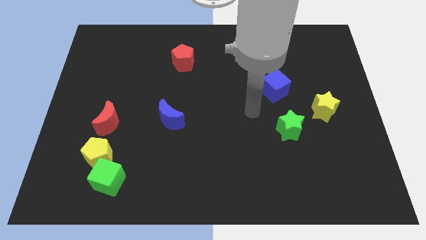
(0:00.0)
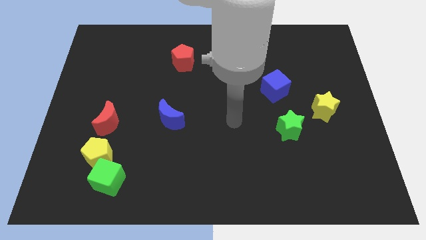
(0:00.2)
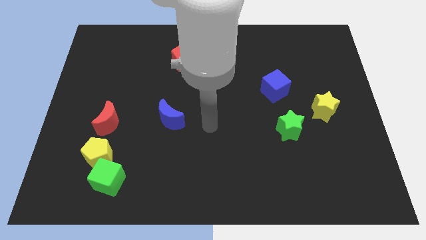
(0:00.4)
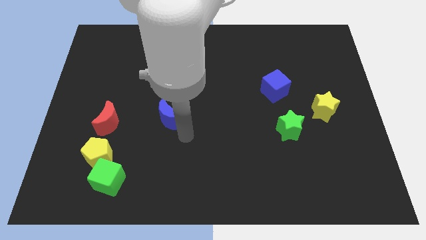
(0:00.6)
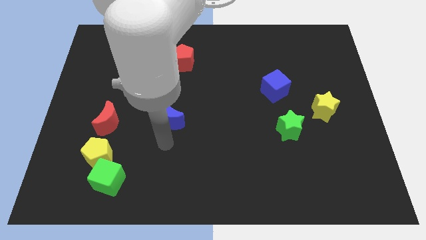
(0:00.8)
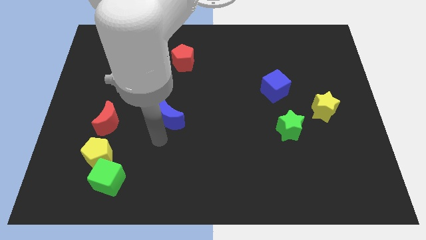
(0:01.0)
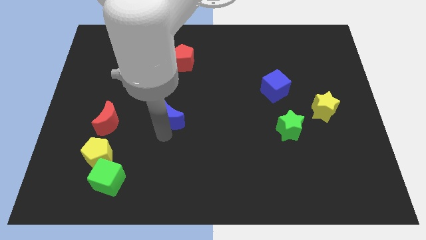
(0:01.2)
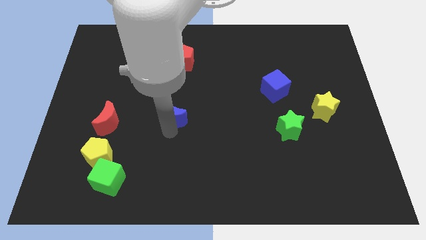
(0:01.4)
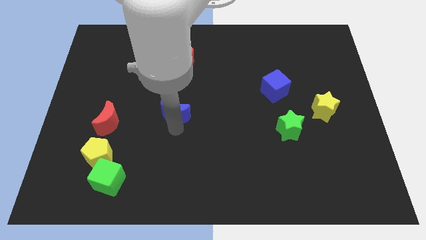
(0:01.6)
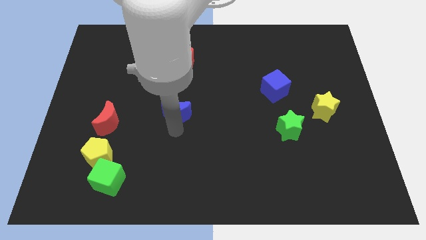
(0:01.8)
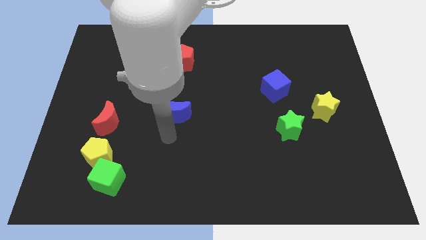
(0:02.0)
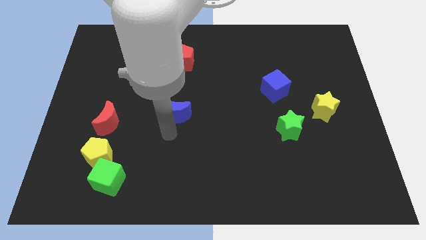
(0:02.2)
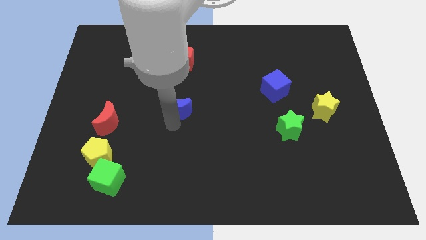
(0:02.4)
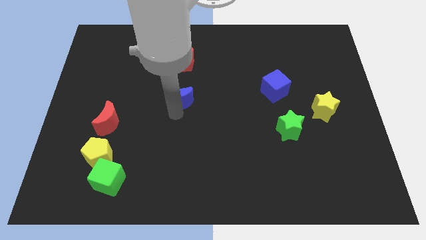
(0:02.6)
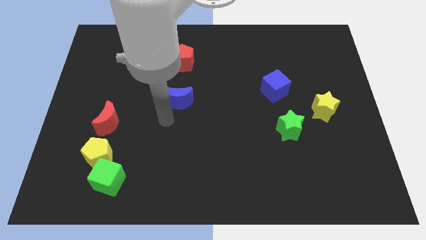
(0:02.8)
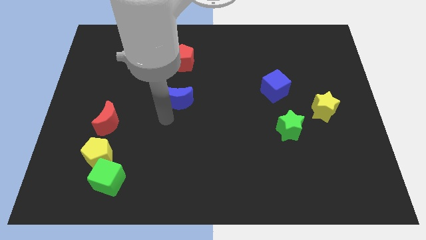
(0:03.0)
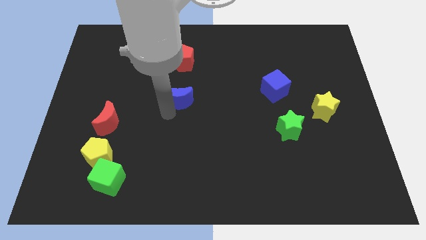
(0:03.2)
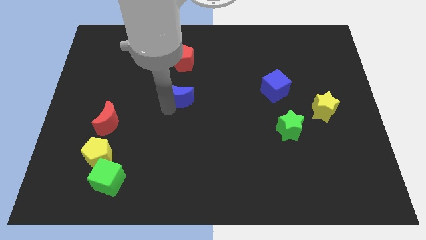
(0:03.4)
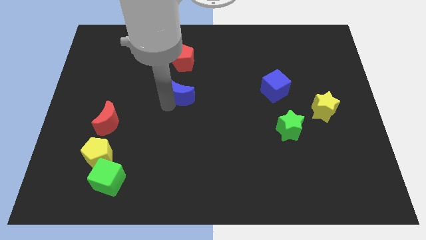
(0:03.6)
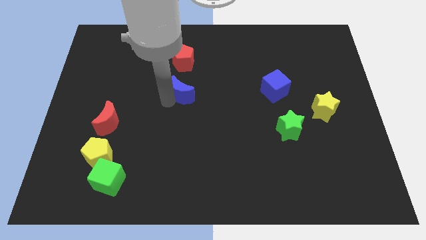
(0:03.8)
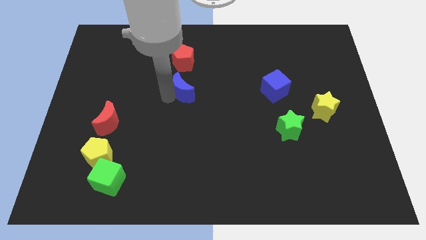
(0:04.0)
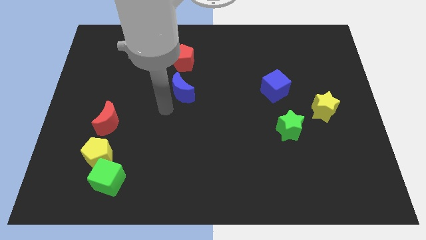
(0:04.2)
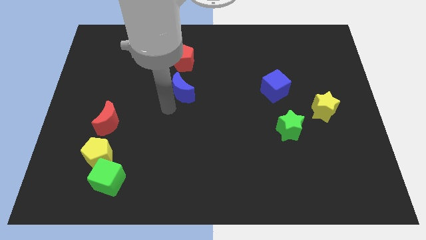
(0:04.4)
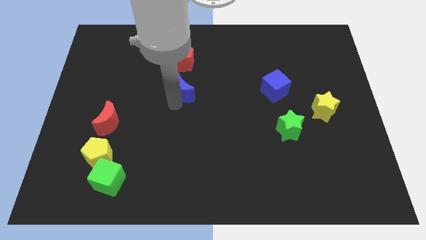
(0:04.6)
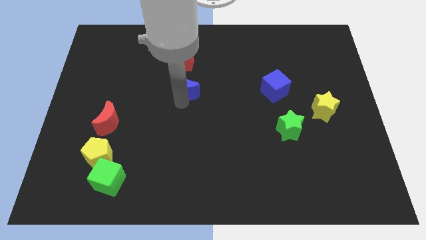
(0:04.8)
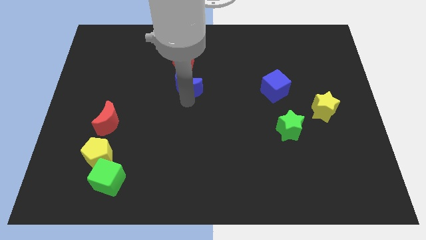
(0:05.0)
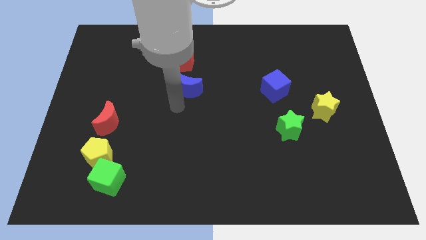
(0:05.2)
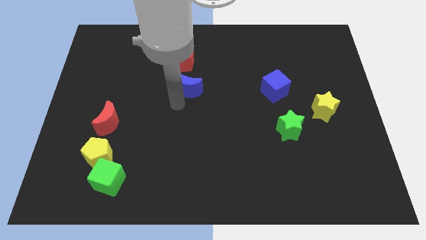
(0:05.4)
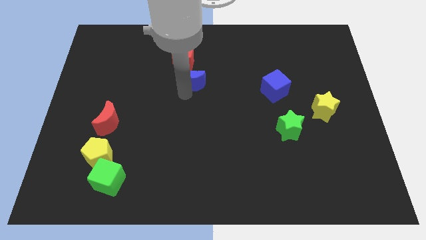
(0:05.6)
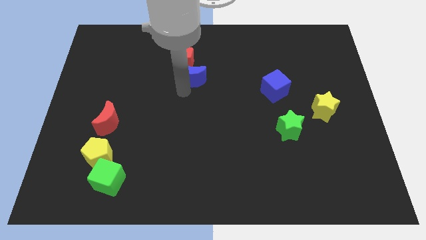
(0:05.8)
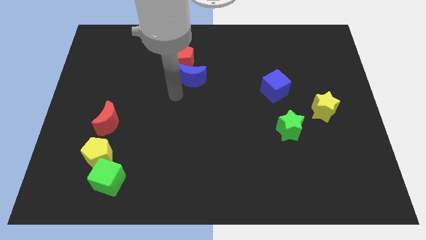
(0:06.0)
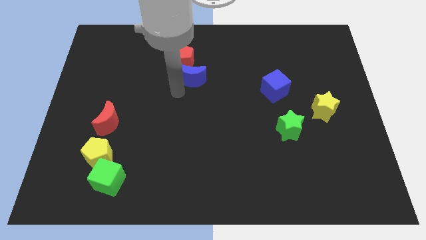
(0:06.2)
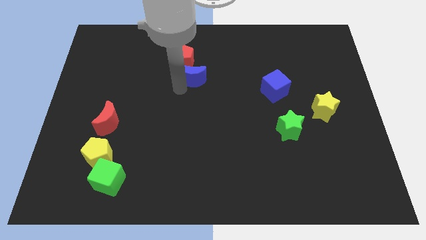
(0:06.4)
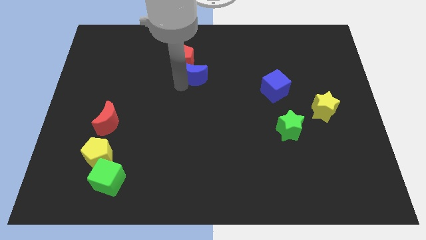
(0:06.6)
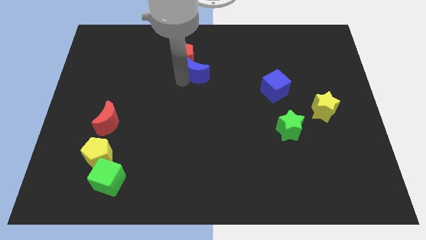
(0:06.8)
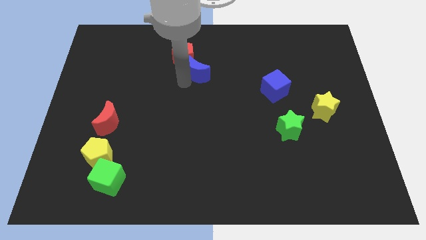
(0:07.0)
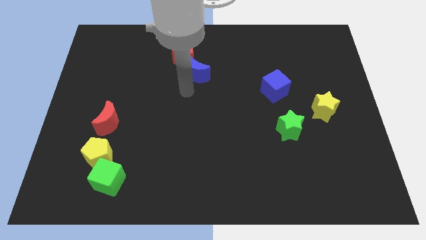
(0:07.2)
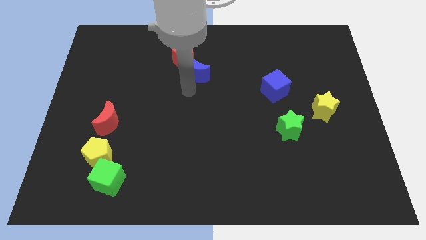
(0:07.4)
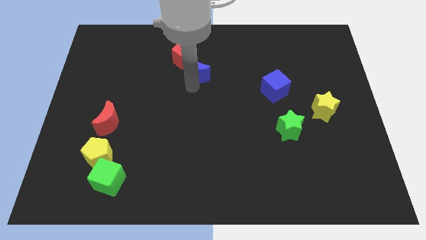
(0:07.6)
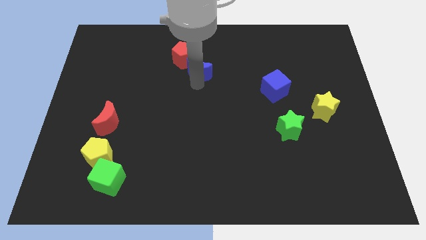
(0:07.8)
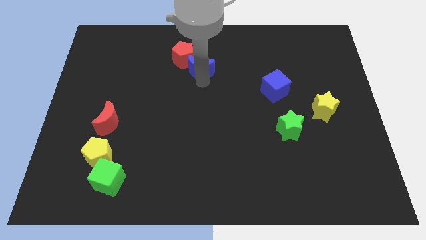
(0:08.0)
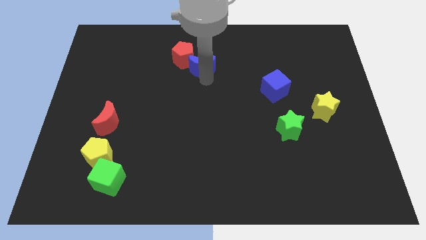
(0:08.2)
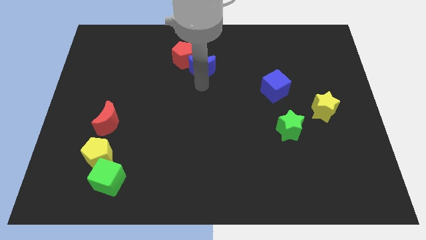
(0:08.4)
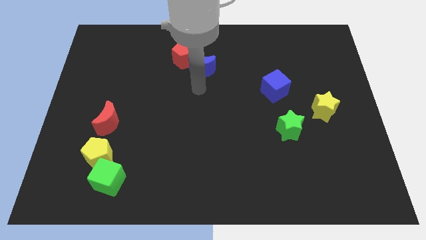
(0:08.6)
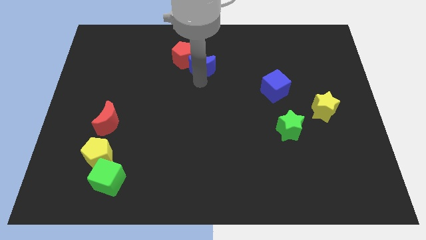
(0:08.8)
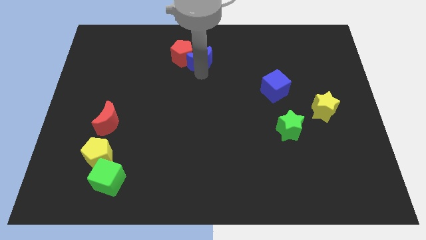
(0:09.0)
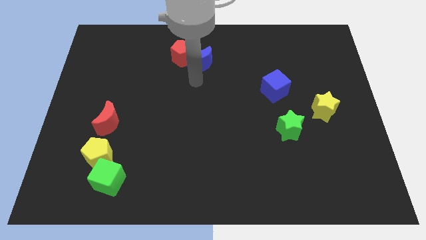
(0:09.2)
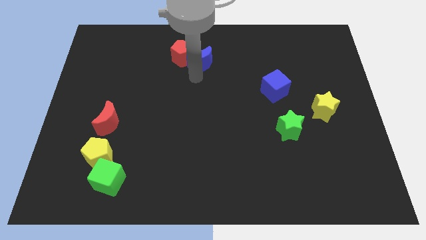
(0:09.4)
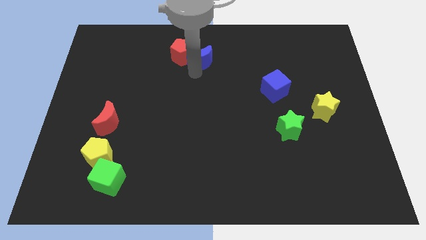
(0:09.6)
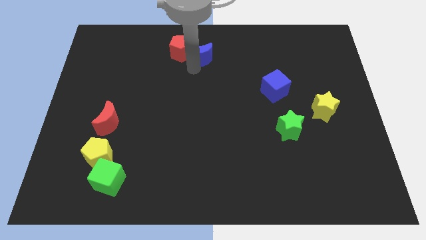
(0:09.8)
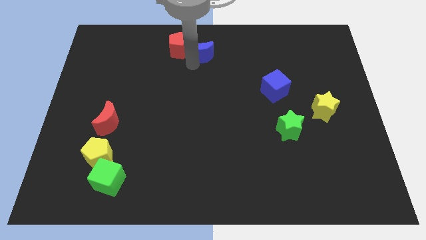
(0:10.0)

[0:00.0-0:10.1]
push the blue moon to the top side

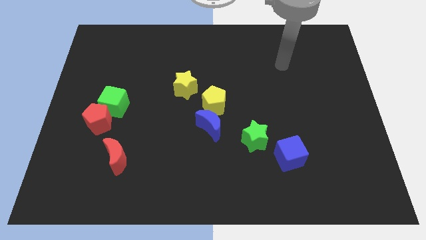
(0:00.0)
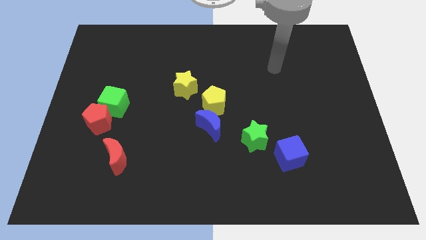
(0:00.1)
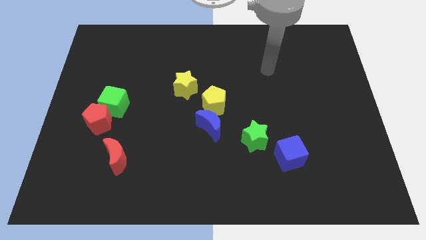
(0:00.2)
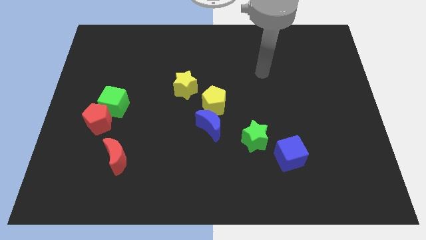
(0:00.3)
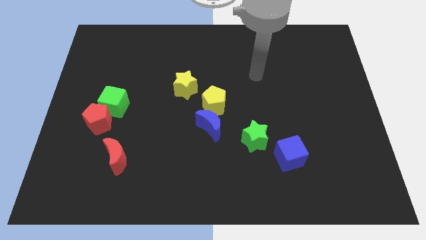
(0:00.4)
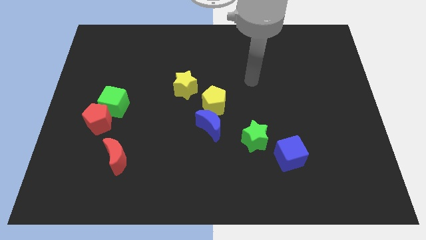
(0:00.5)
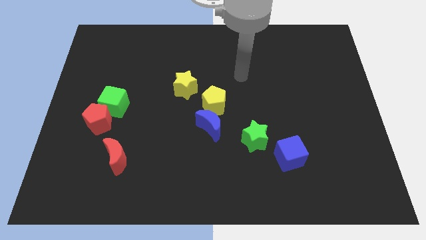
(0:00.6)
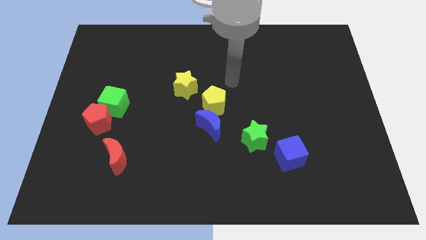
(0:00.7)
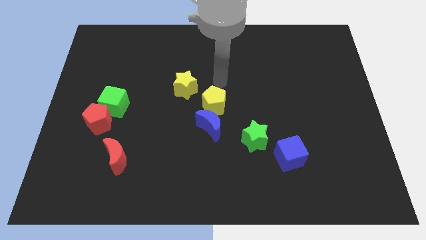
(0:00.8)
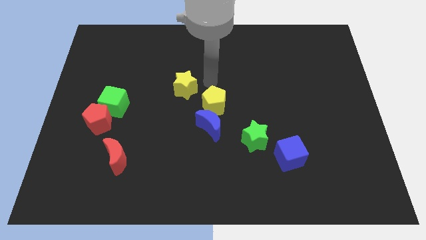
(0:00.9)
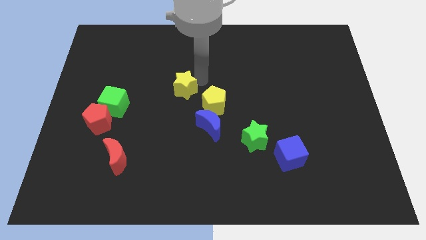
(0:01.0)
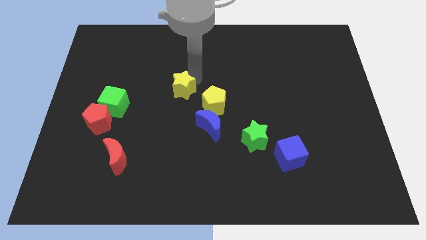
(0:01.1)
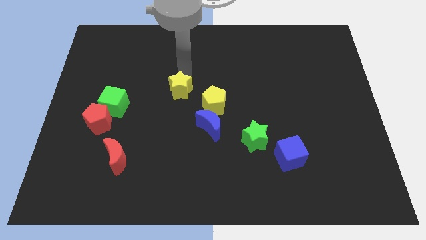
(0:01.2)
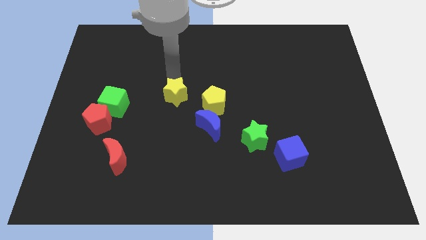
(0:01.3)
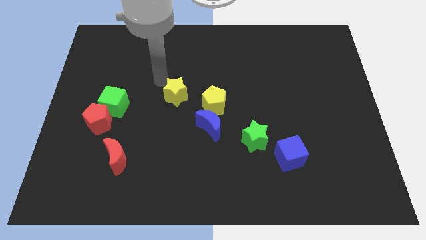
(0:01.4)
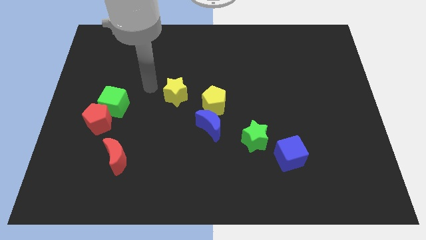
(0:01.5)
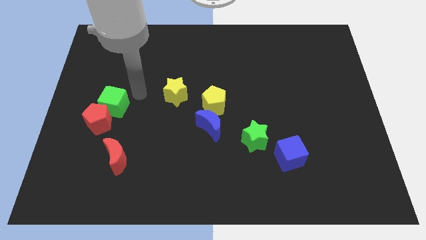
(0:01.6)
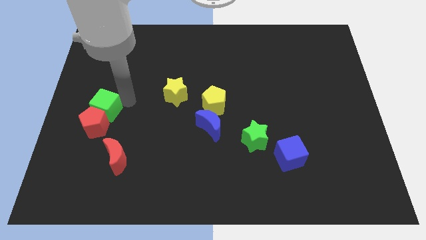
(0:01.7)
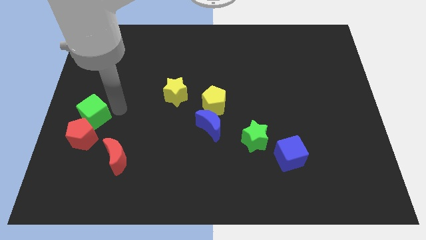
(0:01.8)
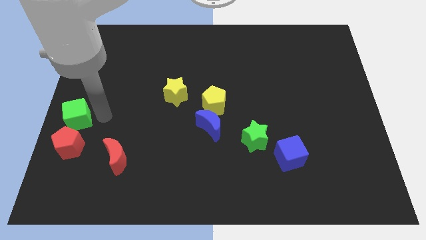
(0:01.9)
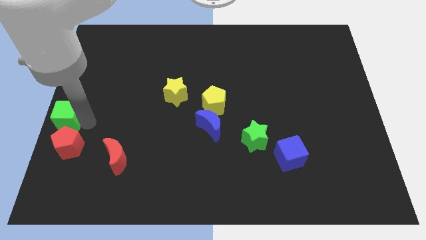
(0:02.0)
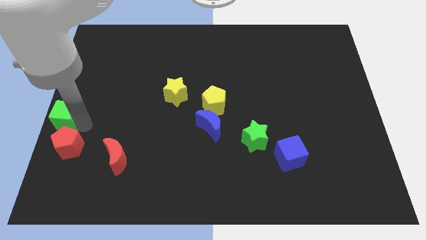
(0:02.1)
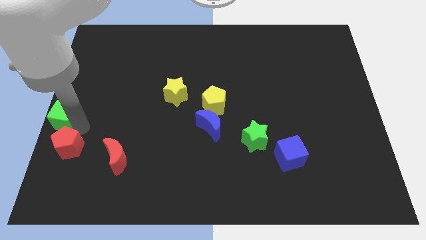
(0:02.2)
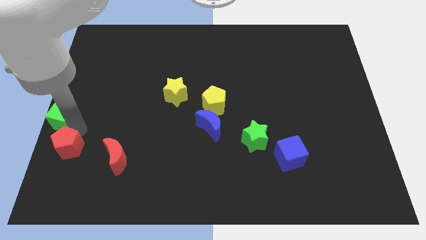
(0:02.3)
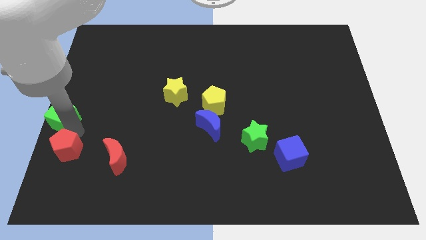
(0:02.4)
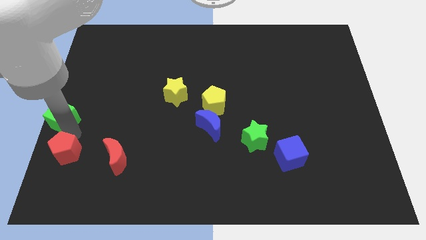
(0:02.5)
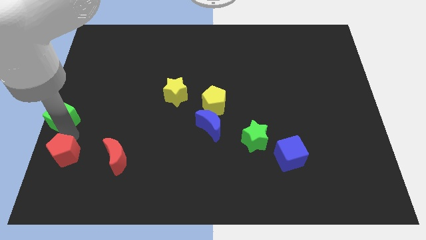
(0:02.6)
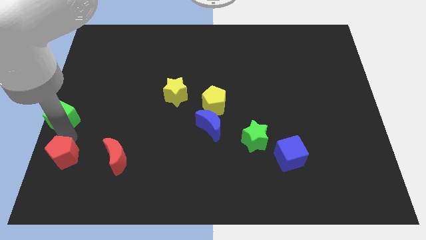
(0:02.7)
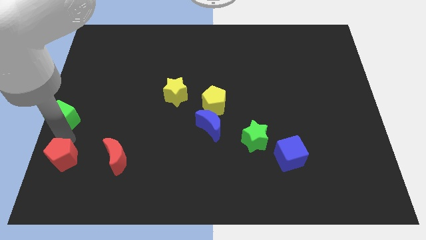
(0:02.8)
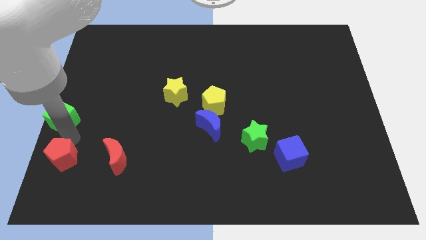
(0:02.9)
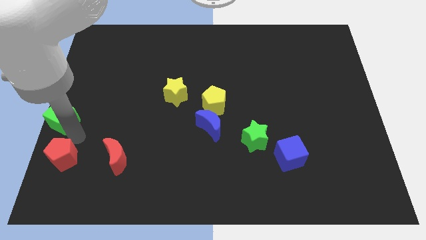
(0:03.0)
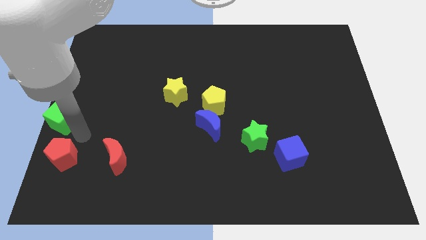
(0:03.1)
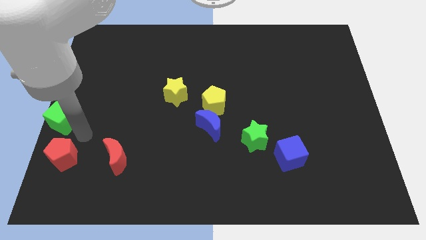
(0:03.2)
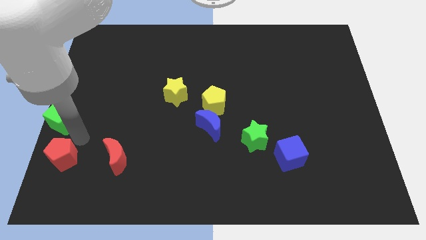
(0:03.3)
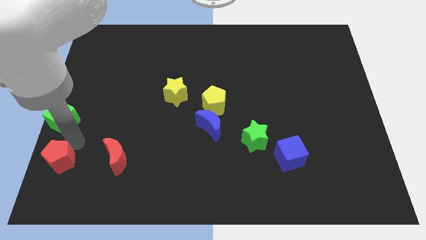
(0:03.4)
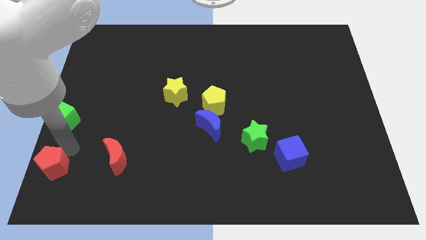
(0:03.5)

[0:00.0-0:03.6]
push the red pentagon to the bottom left
